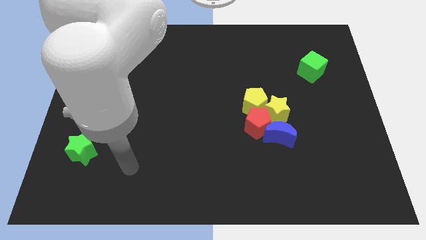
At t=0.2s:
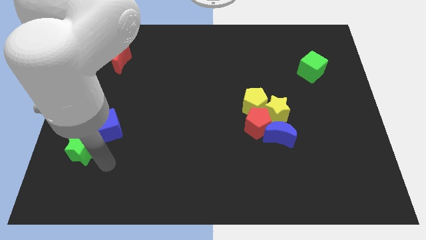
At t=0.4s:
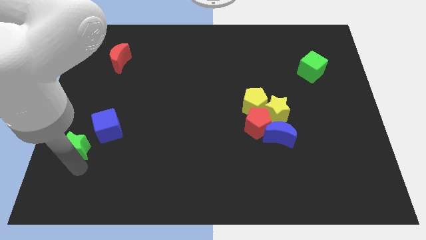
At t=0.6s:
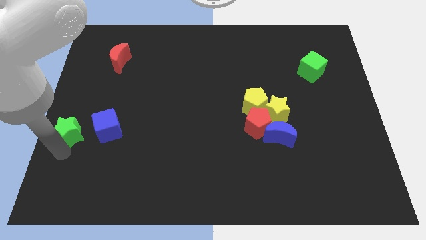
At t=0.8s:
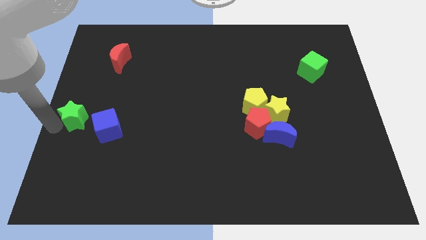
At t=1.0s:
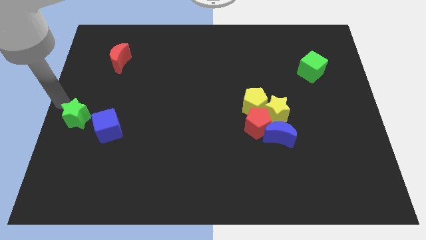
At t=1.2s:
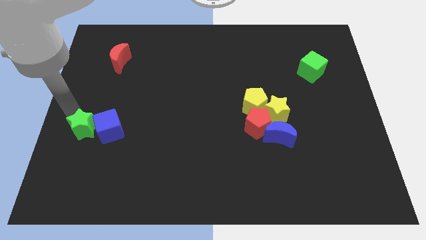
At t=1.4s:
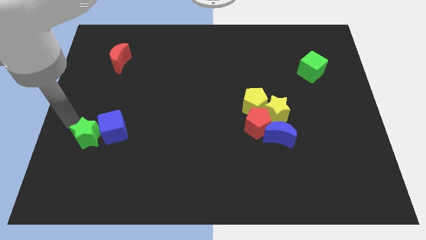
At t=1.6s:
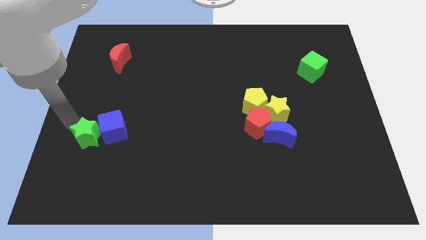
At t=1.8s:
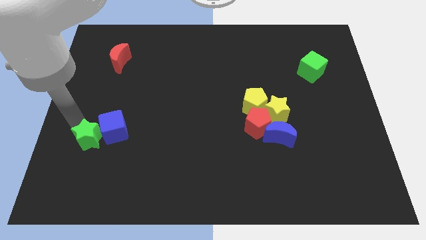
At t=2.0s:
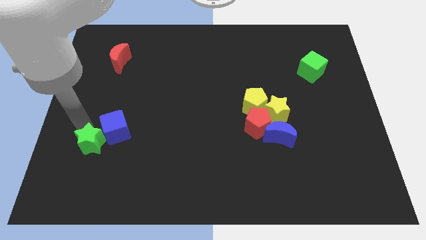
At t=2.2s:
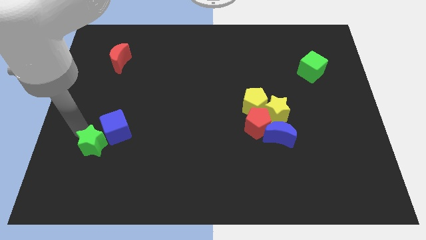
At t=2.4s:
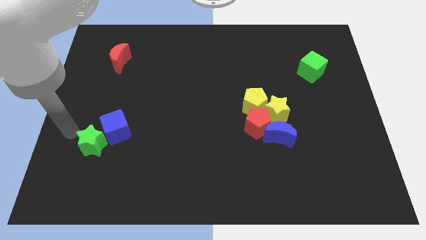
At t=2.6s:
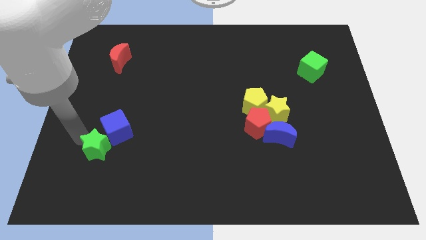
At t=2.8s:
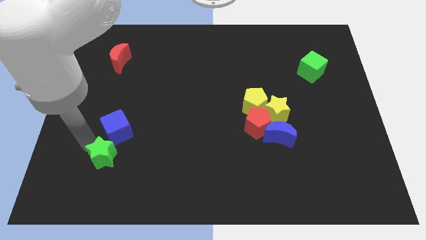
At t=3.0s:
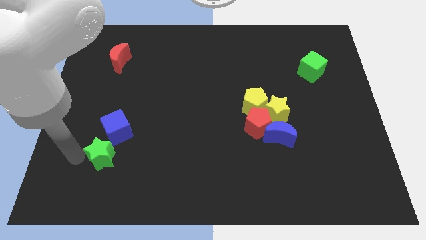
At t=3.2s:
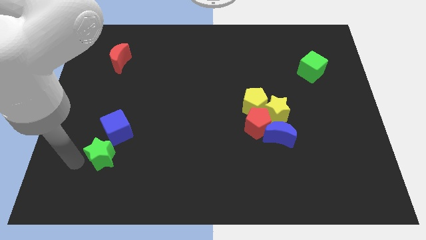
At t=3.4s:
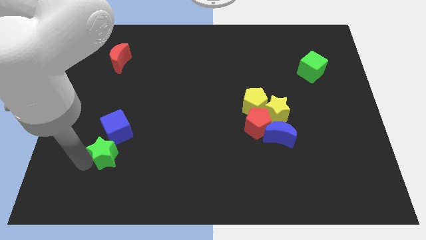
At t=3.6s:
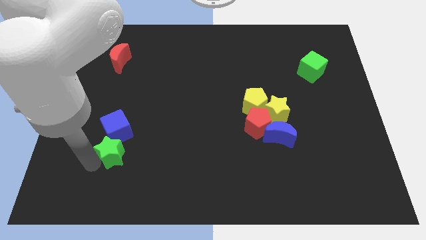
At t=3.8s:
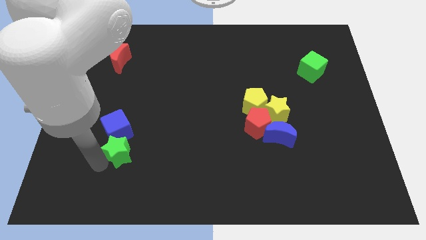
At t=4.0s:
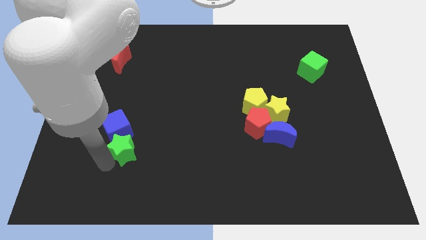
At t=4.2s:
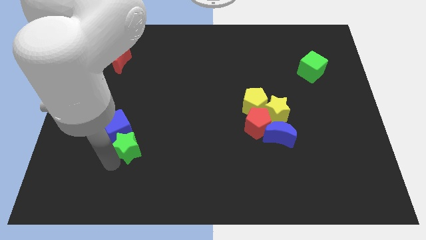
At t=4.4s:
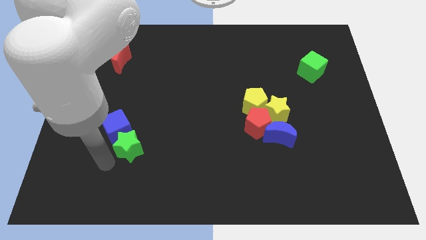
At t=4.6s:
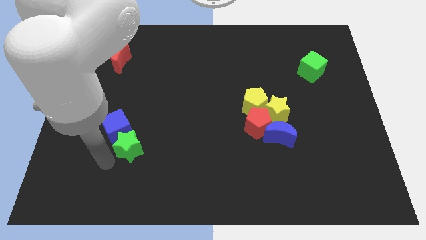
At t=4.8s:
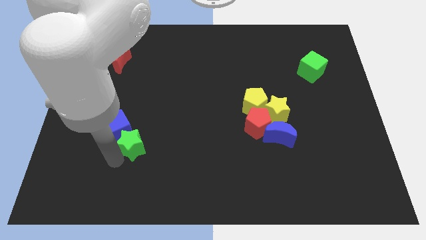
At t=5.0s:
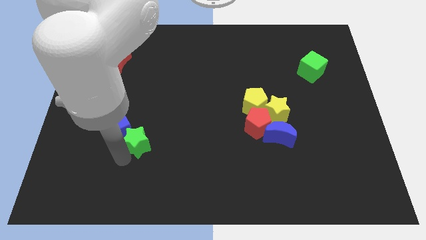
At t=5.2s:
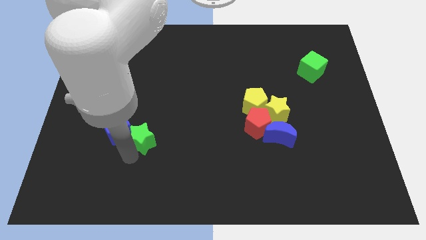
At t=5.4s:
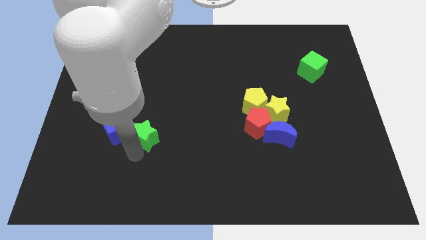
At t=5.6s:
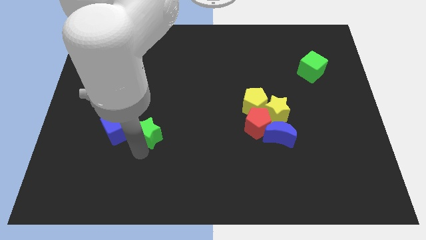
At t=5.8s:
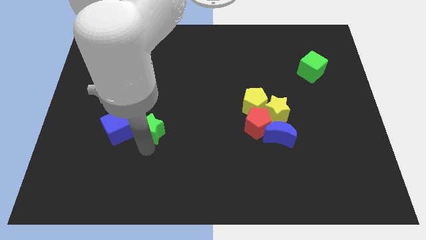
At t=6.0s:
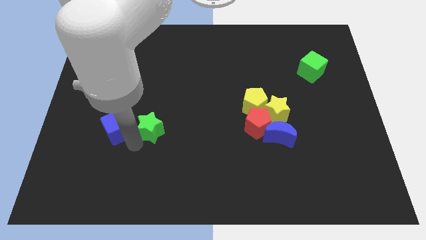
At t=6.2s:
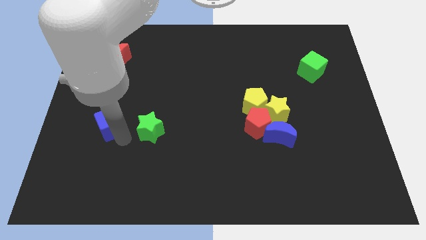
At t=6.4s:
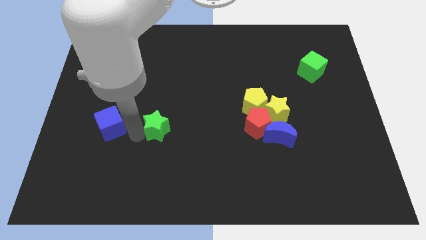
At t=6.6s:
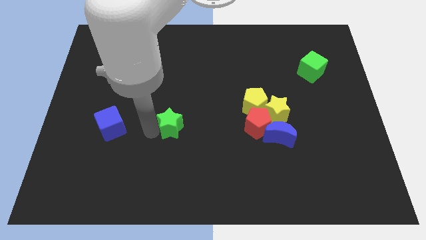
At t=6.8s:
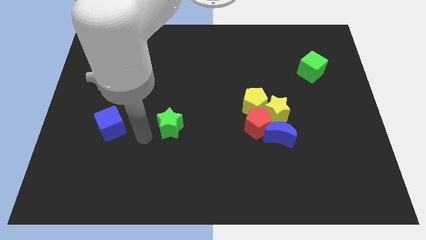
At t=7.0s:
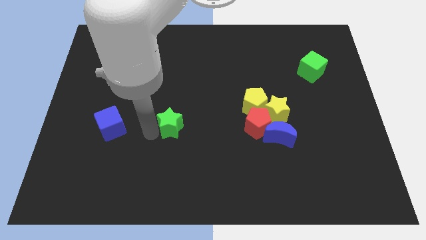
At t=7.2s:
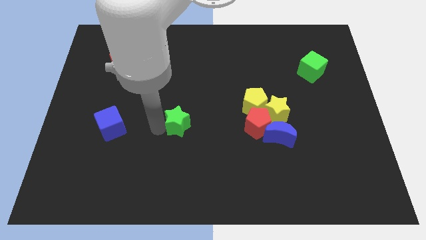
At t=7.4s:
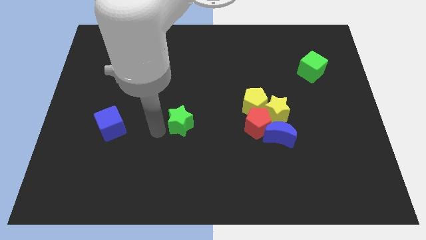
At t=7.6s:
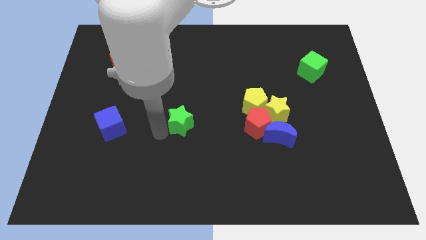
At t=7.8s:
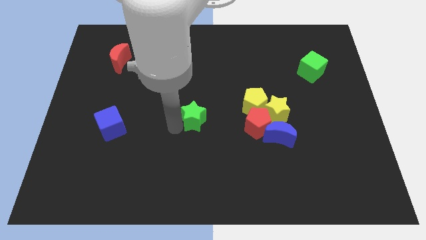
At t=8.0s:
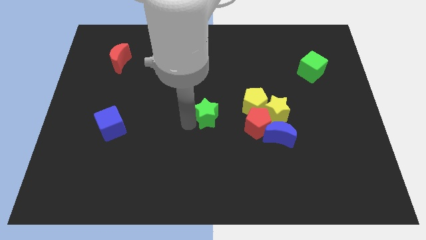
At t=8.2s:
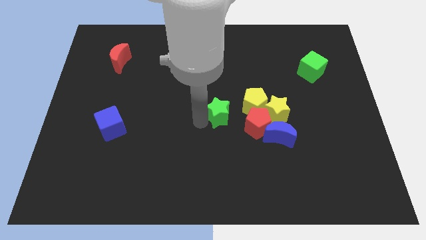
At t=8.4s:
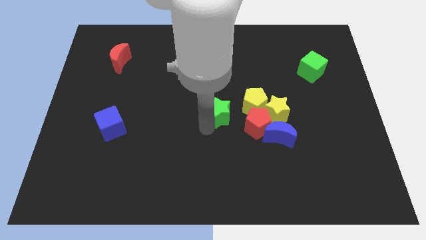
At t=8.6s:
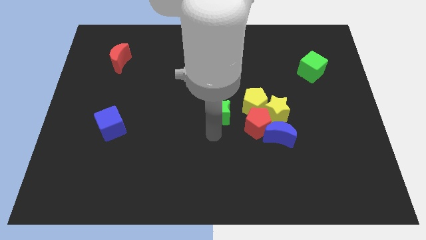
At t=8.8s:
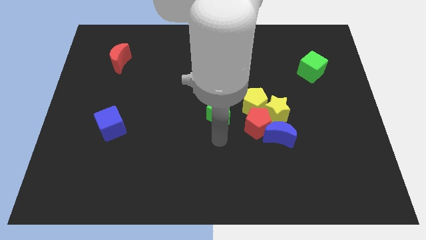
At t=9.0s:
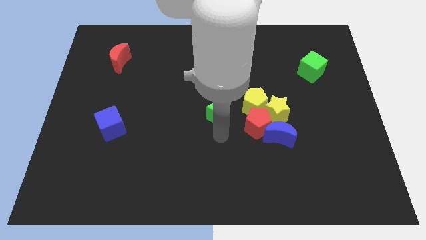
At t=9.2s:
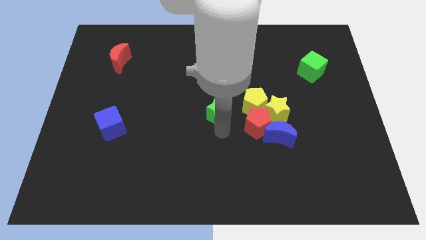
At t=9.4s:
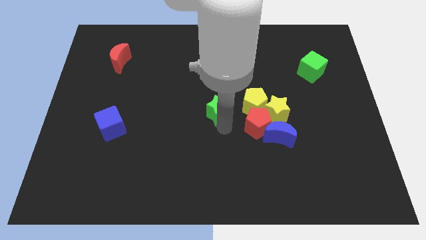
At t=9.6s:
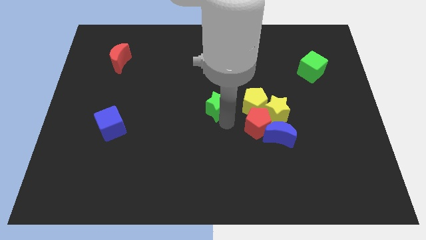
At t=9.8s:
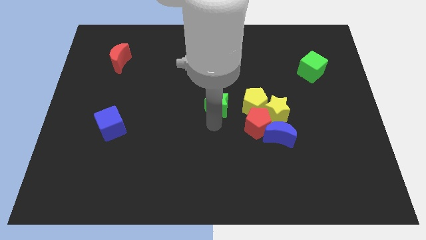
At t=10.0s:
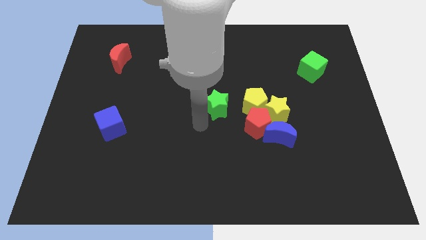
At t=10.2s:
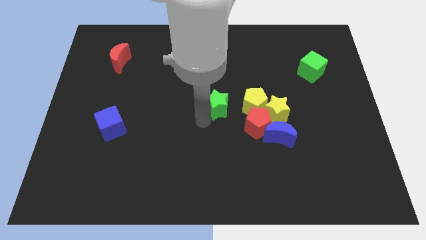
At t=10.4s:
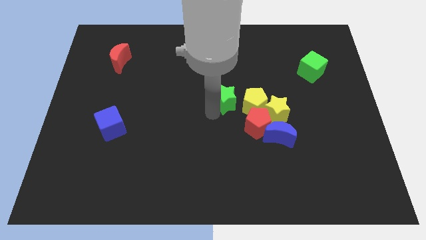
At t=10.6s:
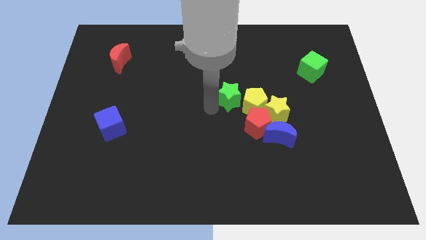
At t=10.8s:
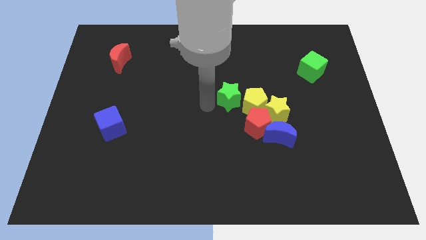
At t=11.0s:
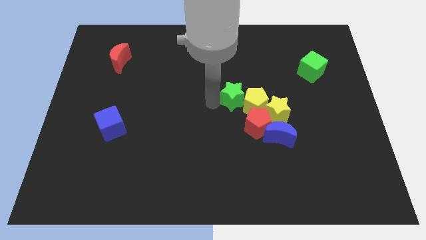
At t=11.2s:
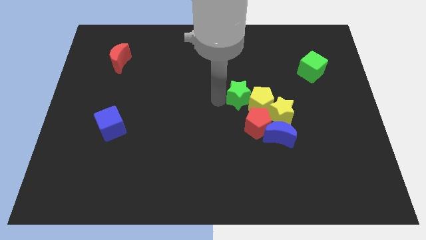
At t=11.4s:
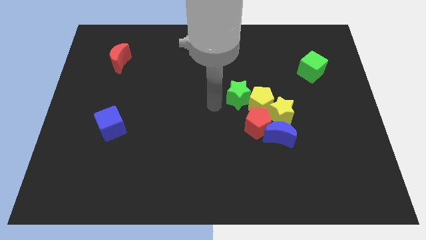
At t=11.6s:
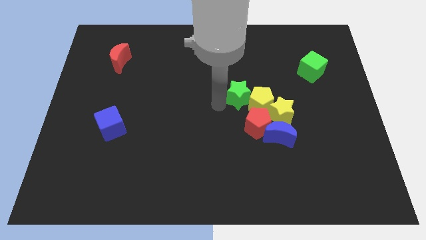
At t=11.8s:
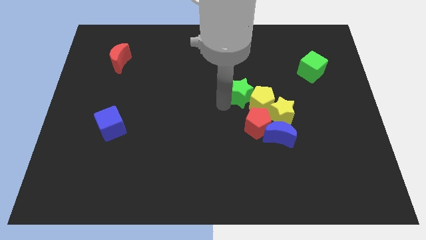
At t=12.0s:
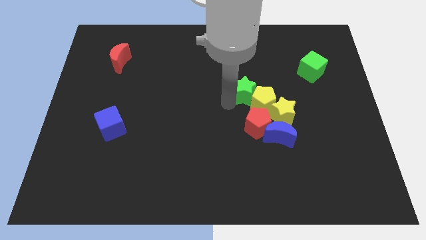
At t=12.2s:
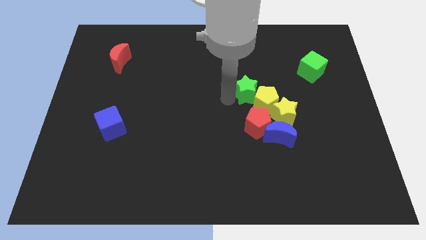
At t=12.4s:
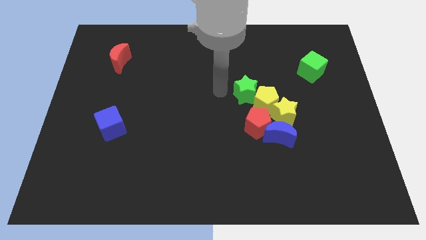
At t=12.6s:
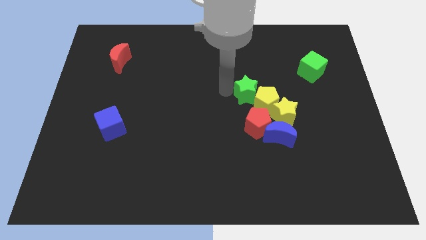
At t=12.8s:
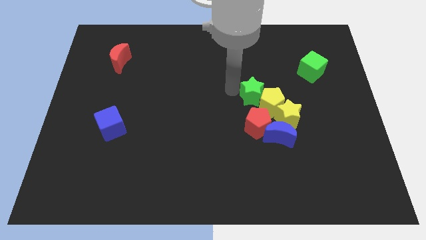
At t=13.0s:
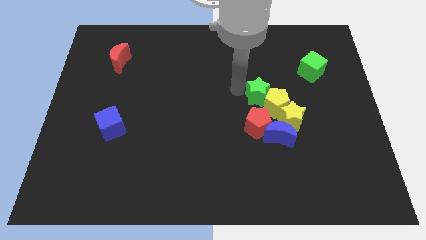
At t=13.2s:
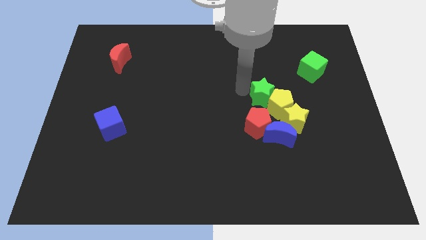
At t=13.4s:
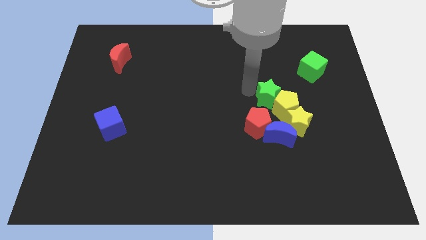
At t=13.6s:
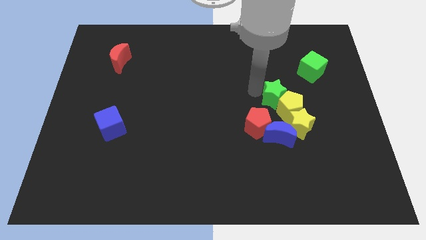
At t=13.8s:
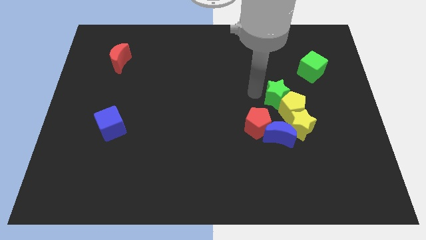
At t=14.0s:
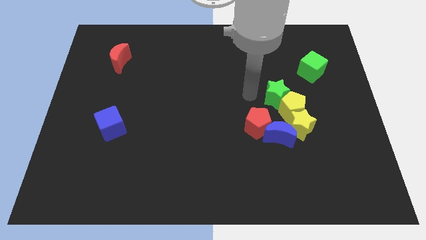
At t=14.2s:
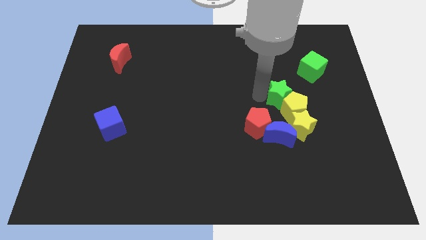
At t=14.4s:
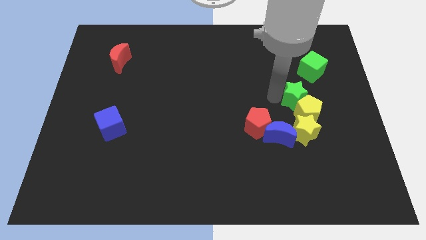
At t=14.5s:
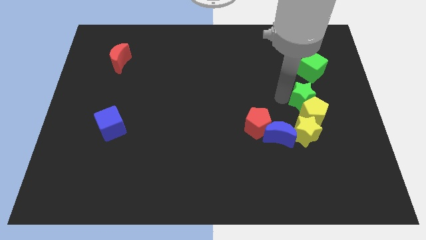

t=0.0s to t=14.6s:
put the green star to the bottom side of the green cube
